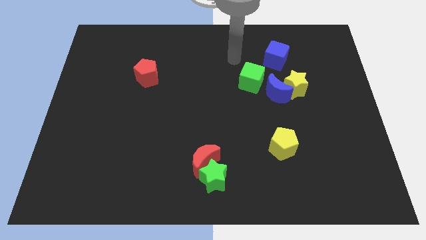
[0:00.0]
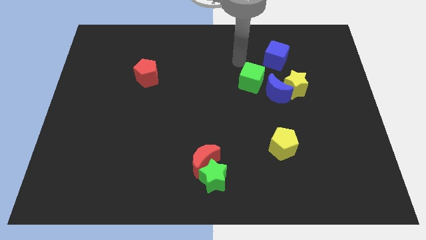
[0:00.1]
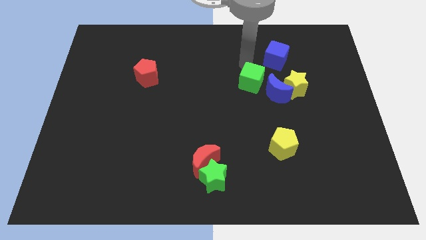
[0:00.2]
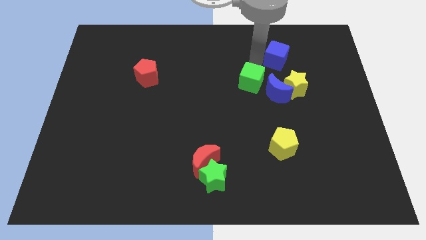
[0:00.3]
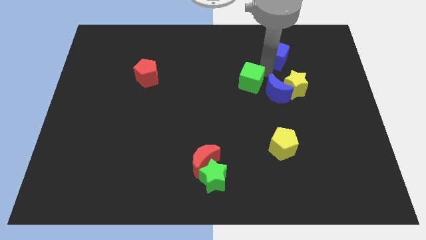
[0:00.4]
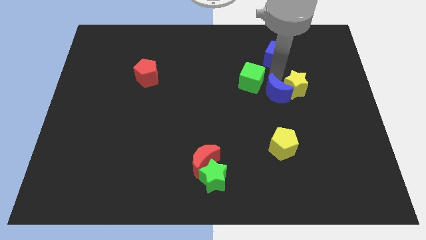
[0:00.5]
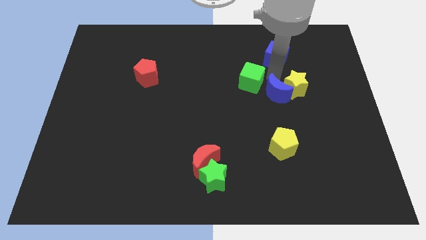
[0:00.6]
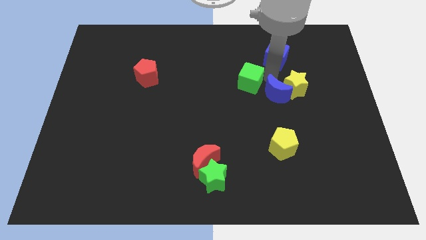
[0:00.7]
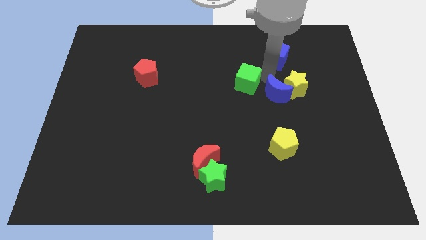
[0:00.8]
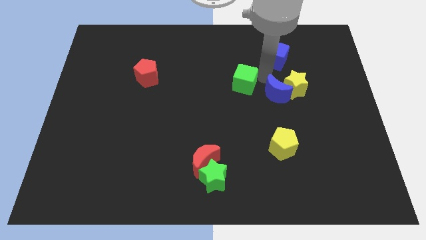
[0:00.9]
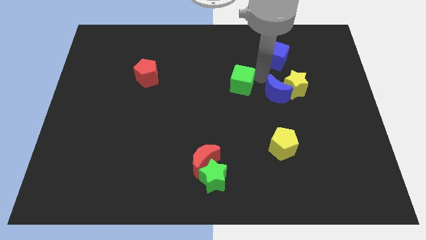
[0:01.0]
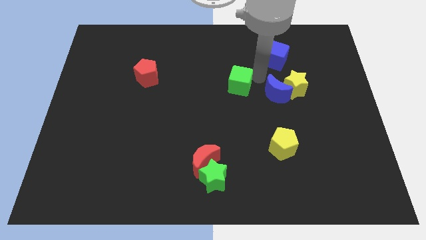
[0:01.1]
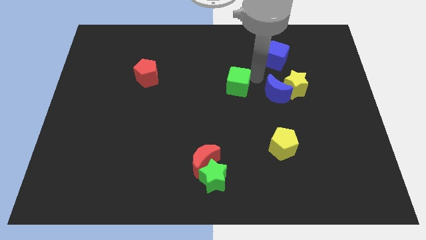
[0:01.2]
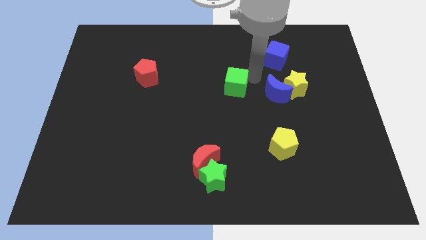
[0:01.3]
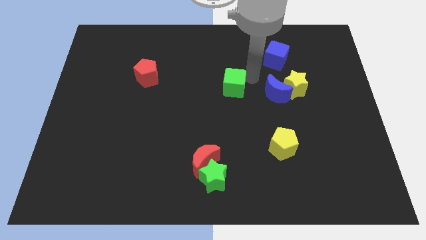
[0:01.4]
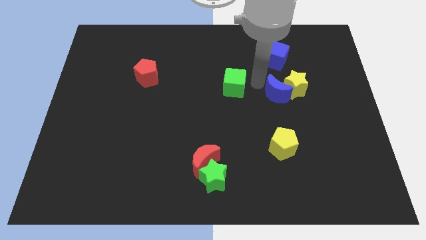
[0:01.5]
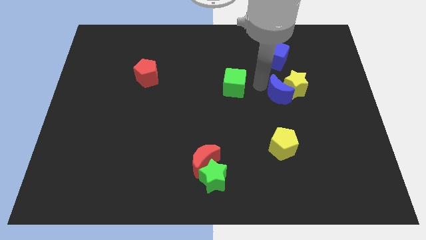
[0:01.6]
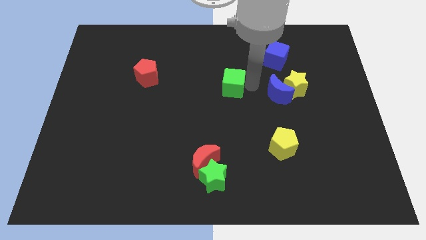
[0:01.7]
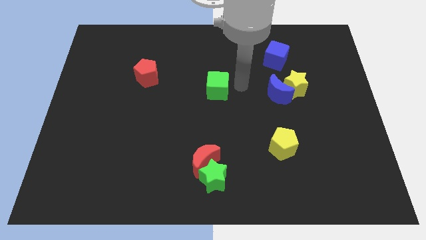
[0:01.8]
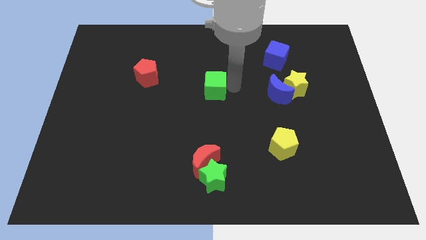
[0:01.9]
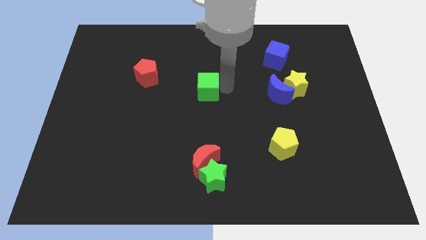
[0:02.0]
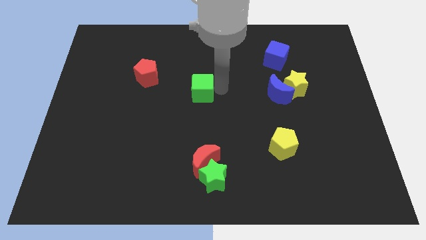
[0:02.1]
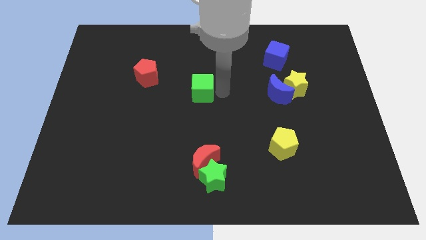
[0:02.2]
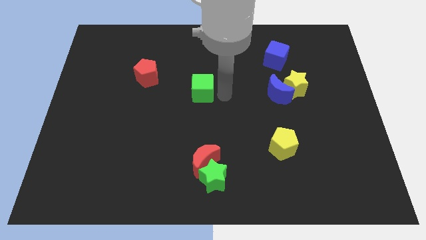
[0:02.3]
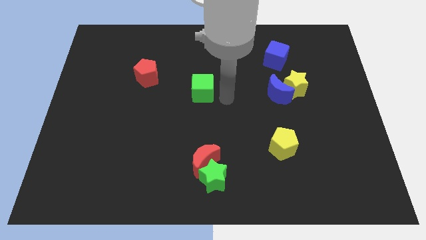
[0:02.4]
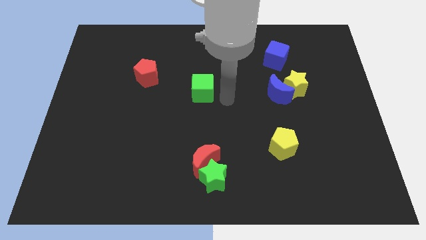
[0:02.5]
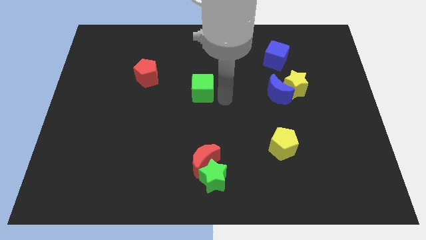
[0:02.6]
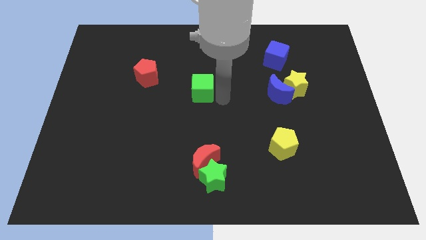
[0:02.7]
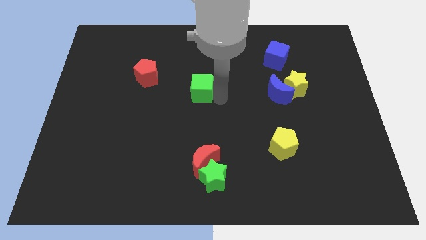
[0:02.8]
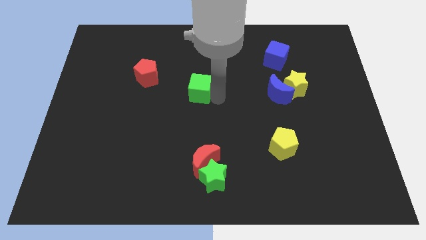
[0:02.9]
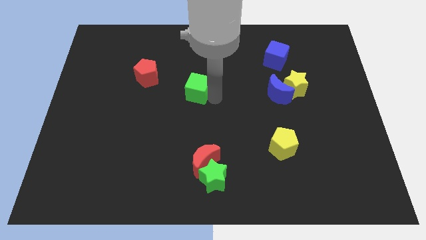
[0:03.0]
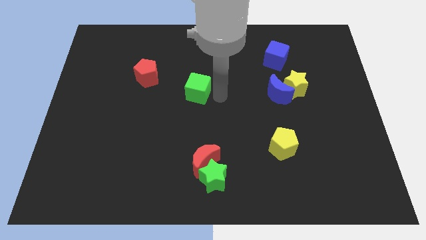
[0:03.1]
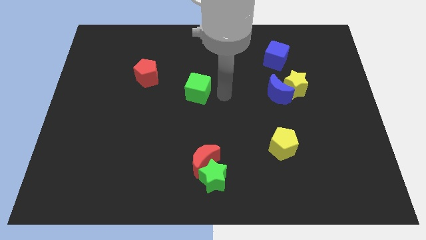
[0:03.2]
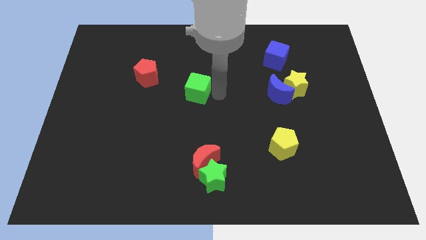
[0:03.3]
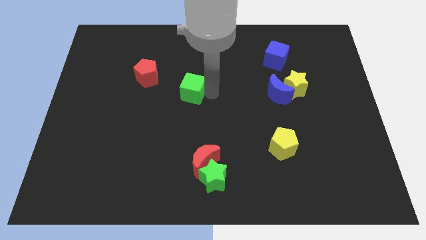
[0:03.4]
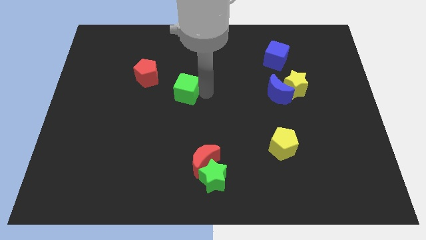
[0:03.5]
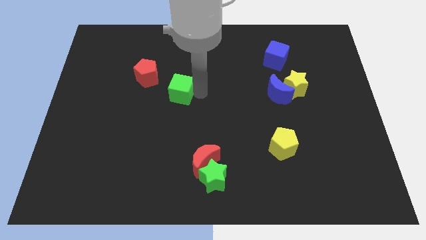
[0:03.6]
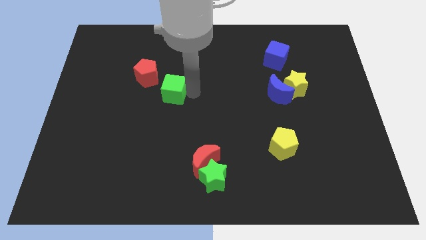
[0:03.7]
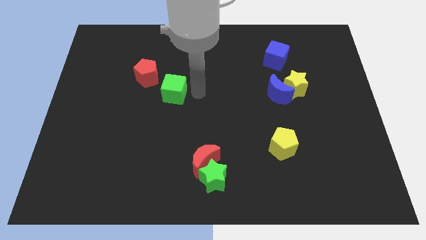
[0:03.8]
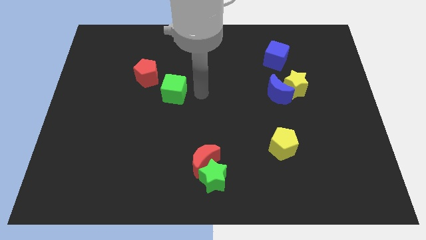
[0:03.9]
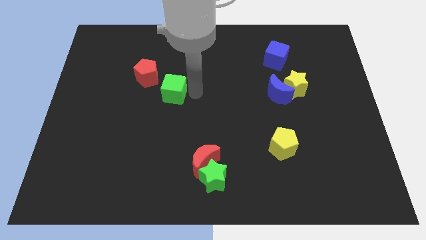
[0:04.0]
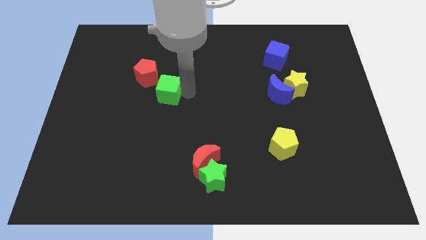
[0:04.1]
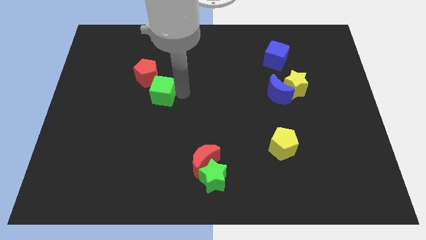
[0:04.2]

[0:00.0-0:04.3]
move the green cube to the left

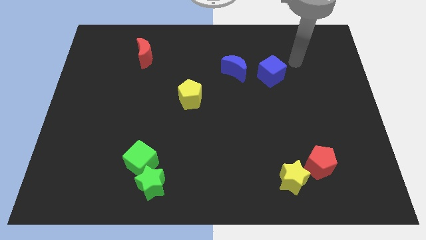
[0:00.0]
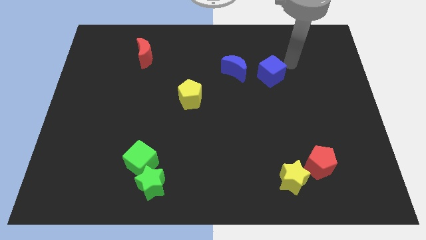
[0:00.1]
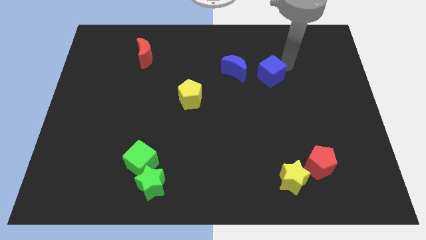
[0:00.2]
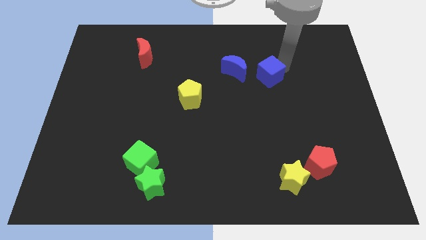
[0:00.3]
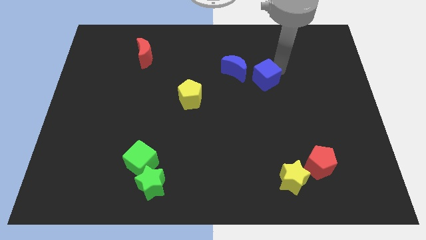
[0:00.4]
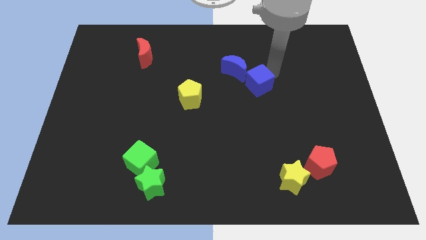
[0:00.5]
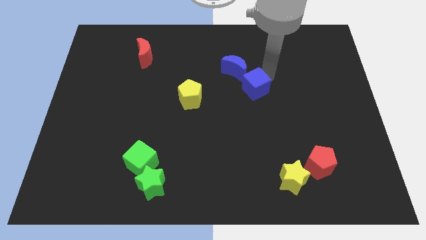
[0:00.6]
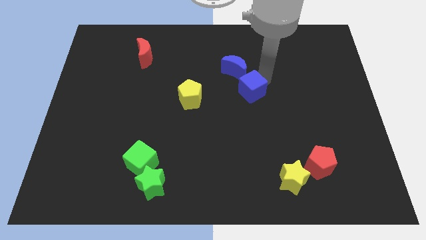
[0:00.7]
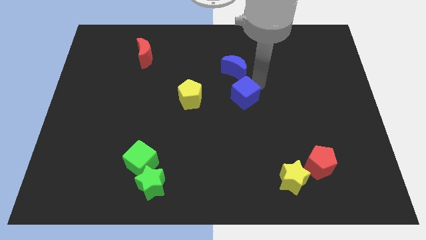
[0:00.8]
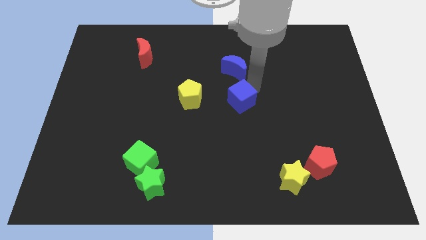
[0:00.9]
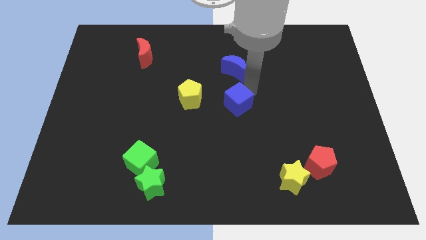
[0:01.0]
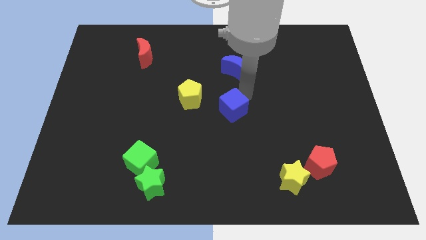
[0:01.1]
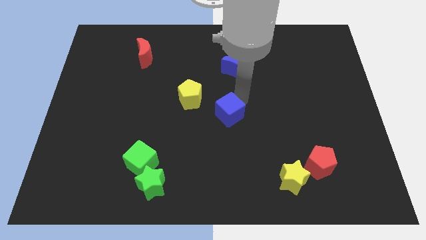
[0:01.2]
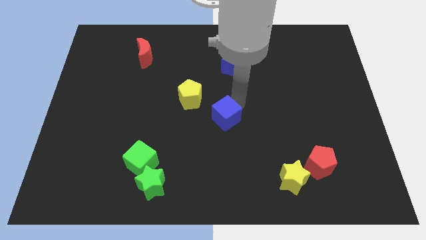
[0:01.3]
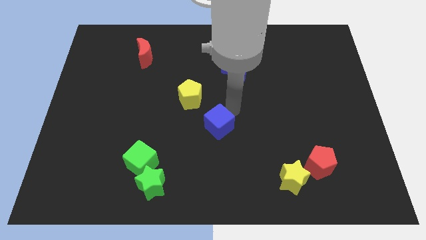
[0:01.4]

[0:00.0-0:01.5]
slide the blue cube down and to the left diagonally

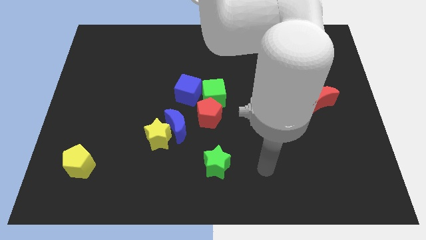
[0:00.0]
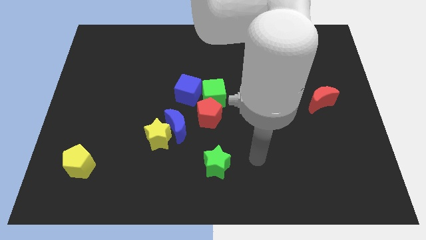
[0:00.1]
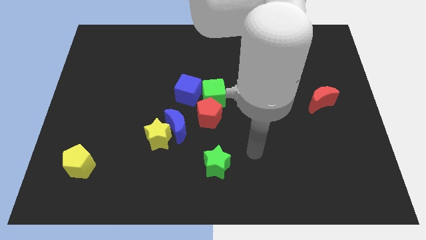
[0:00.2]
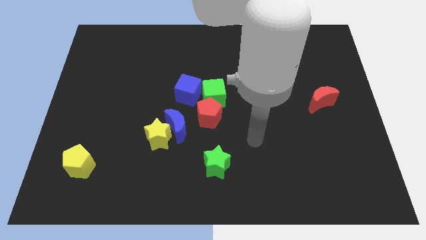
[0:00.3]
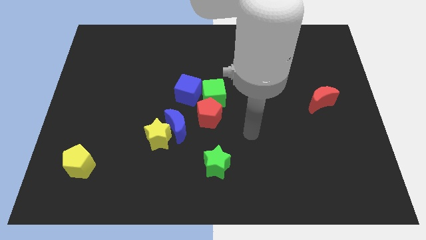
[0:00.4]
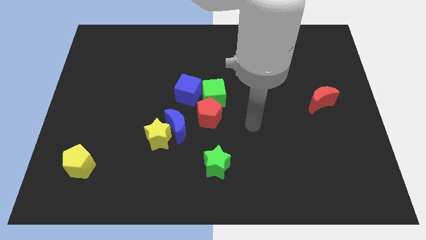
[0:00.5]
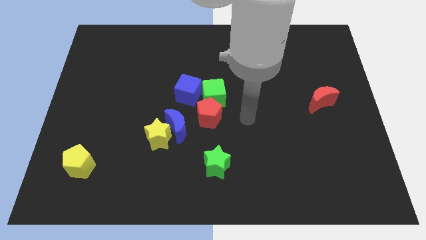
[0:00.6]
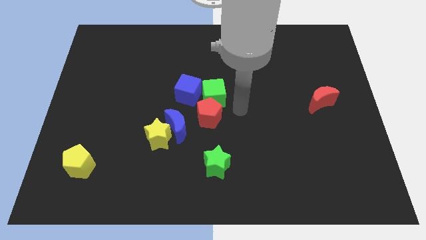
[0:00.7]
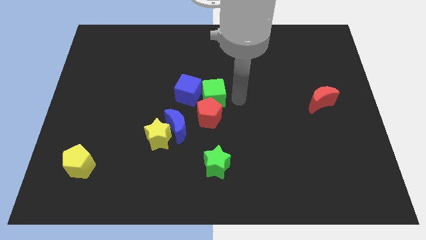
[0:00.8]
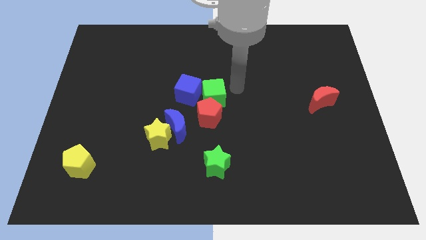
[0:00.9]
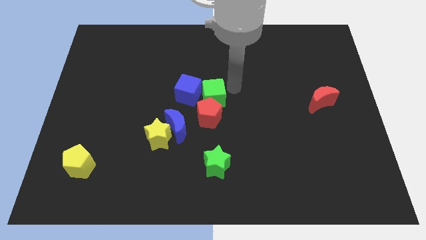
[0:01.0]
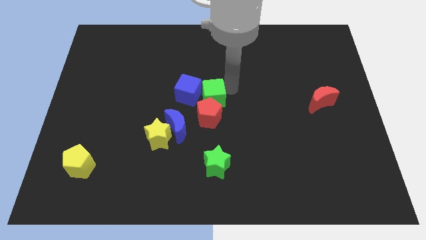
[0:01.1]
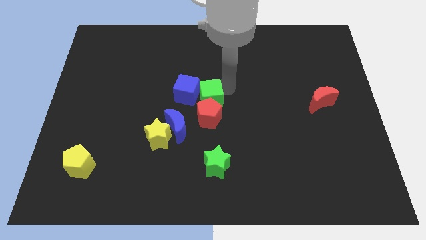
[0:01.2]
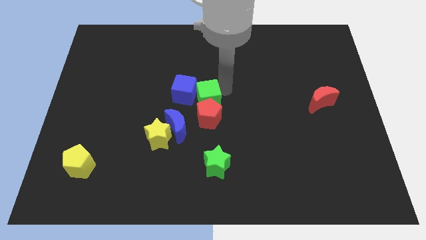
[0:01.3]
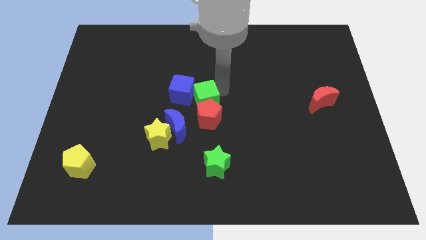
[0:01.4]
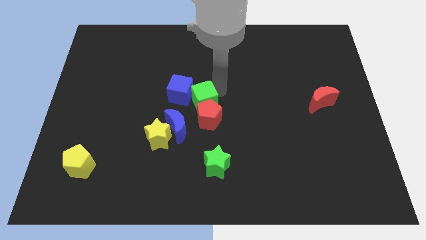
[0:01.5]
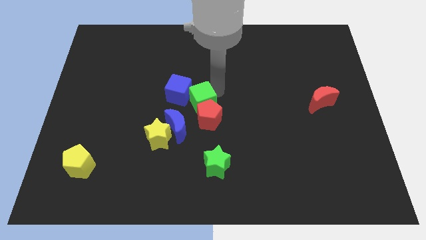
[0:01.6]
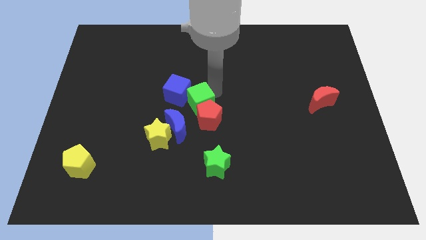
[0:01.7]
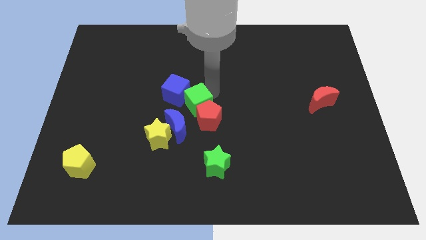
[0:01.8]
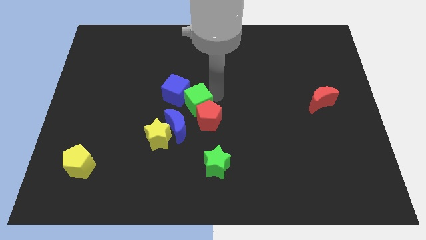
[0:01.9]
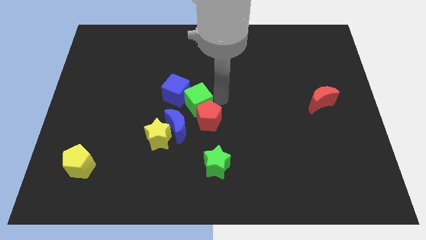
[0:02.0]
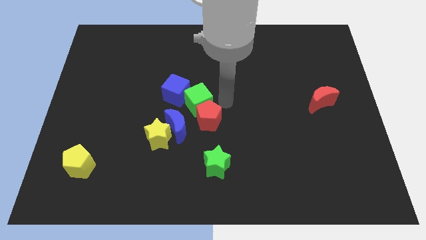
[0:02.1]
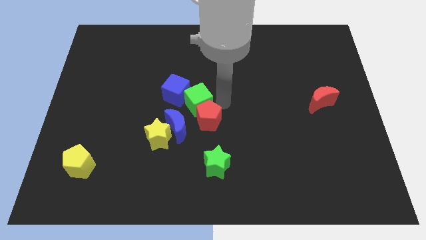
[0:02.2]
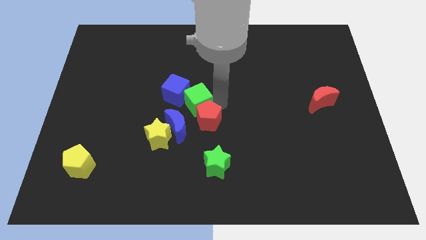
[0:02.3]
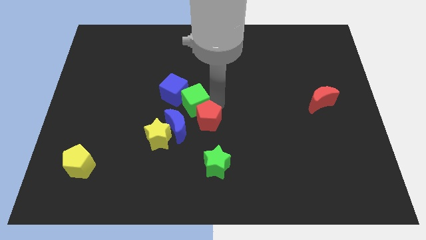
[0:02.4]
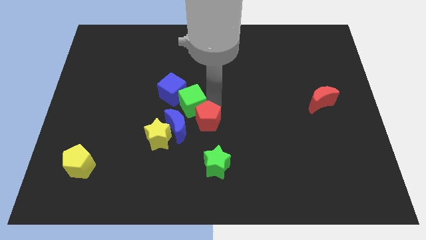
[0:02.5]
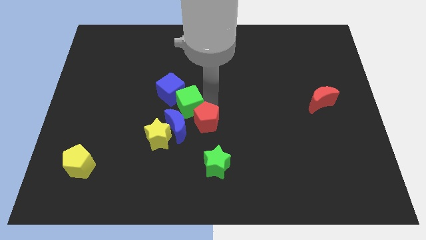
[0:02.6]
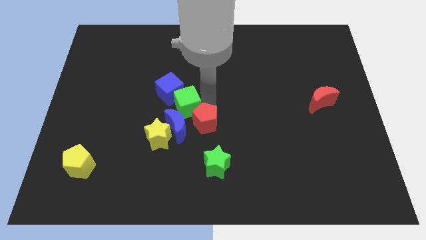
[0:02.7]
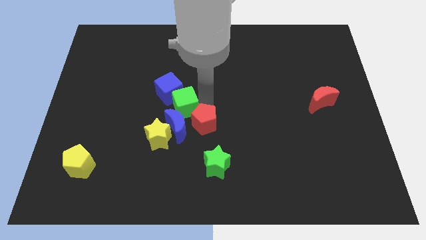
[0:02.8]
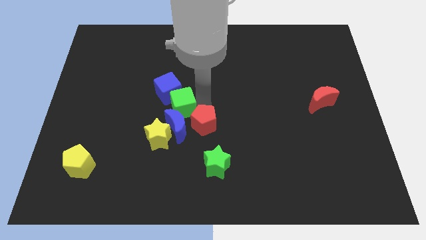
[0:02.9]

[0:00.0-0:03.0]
move the green cube somewhat to the left
